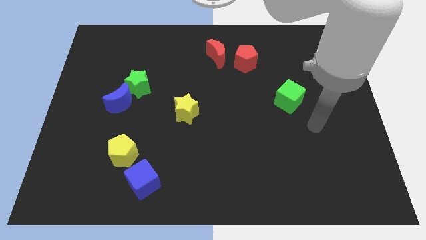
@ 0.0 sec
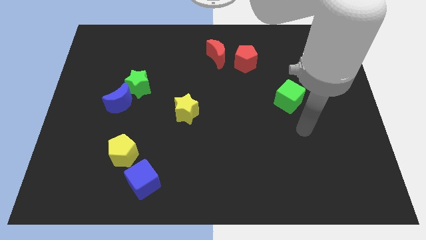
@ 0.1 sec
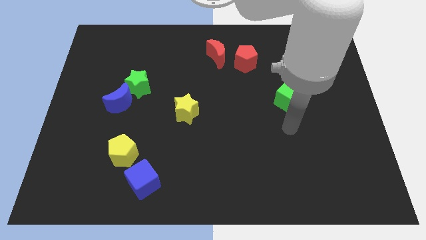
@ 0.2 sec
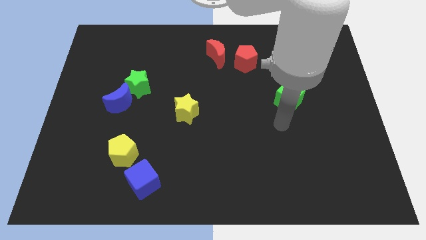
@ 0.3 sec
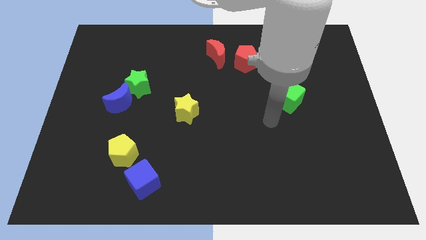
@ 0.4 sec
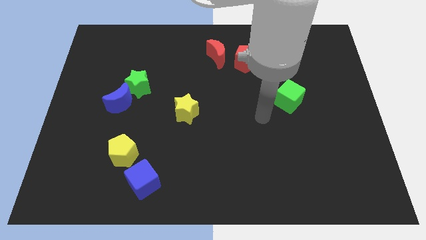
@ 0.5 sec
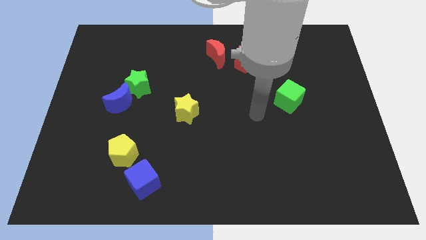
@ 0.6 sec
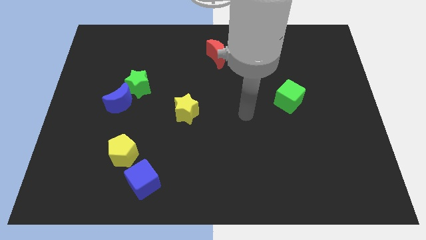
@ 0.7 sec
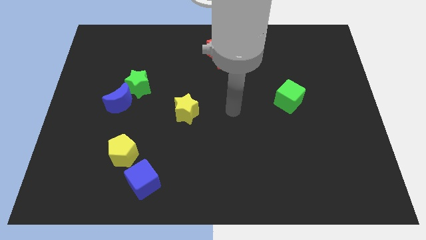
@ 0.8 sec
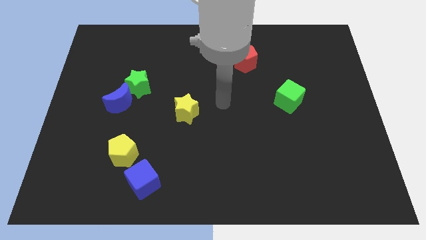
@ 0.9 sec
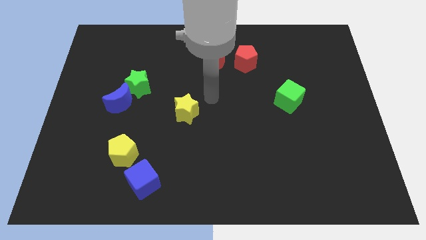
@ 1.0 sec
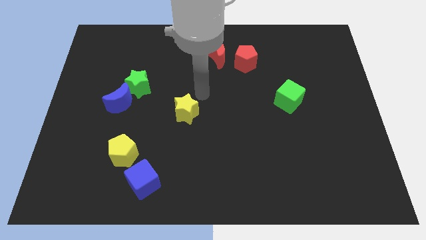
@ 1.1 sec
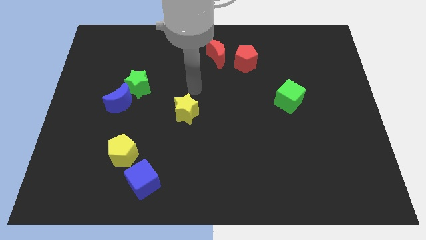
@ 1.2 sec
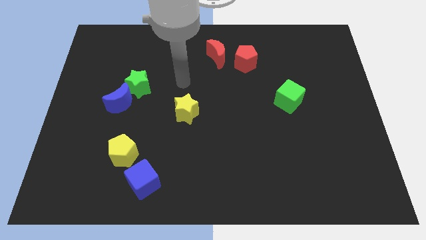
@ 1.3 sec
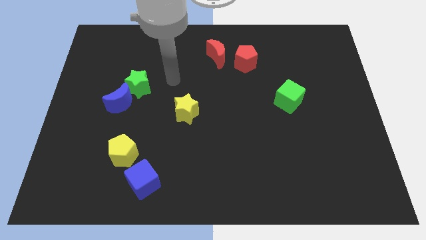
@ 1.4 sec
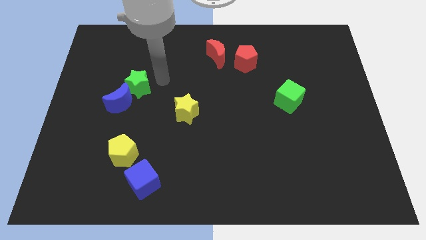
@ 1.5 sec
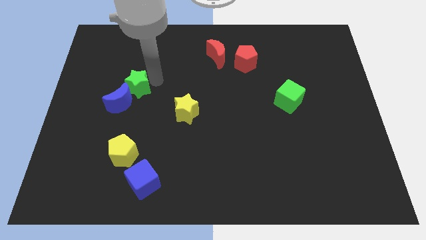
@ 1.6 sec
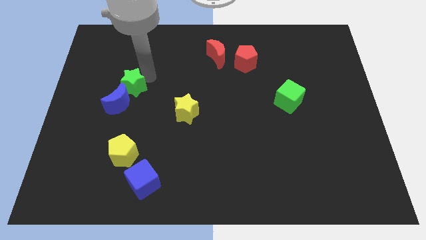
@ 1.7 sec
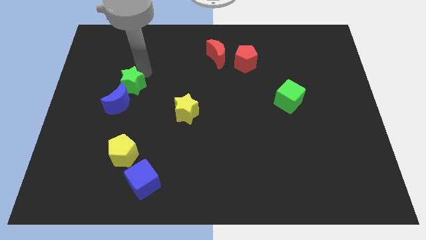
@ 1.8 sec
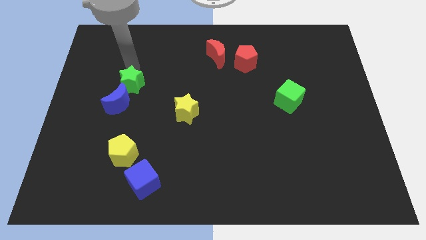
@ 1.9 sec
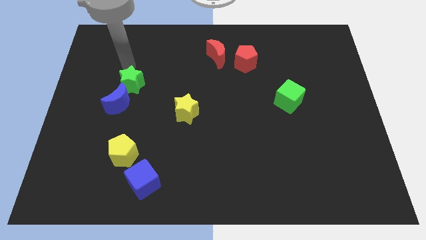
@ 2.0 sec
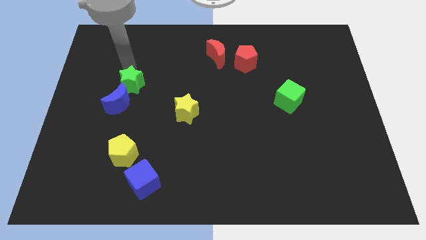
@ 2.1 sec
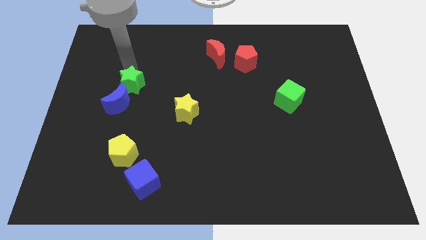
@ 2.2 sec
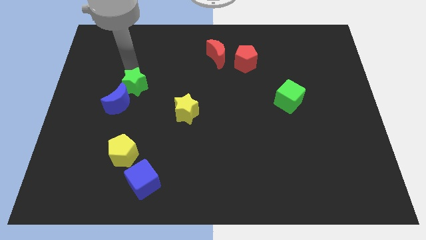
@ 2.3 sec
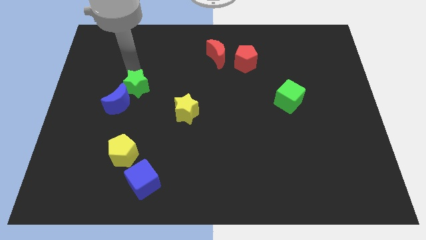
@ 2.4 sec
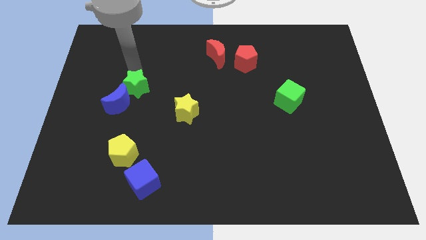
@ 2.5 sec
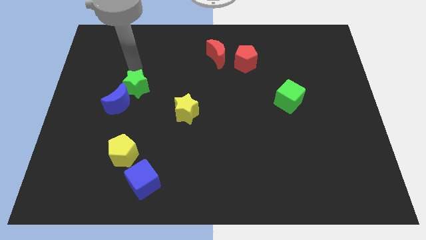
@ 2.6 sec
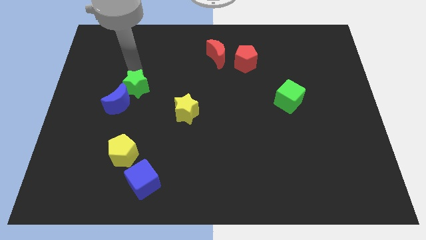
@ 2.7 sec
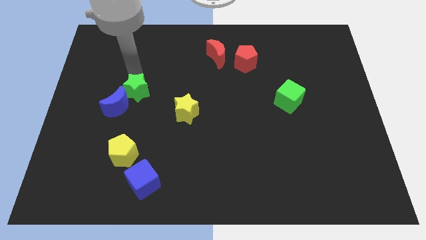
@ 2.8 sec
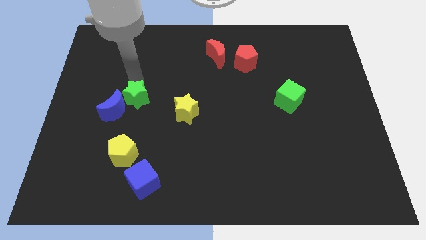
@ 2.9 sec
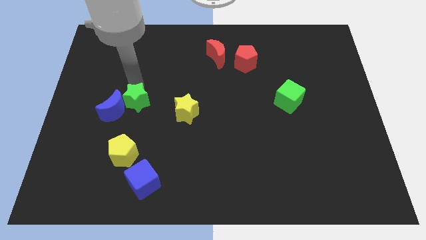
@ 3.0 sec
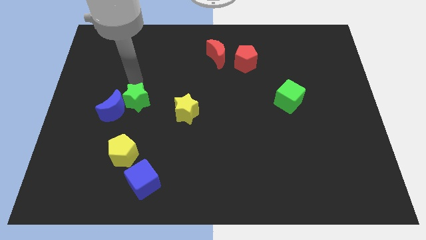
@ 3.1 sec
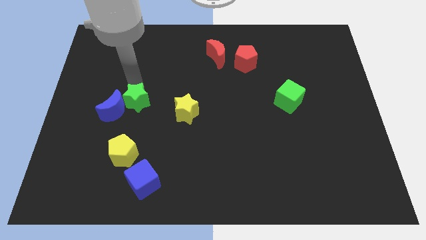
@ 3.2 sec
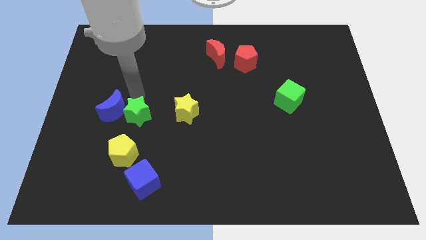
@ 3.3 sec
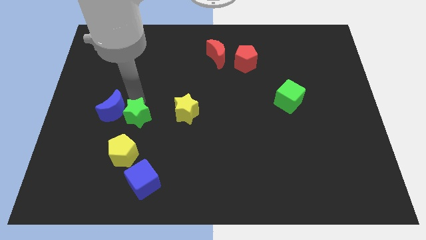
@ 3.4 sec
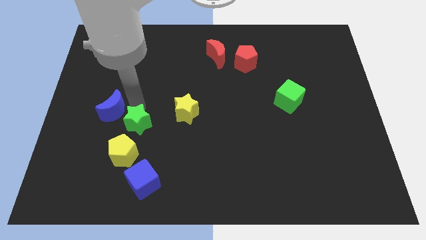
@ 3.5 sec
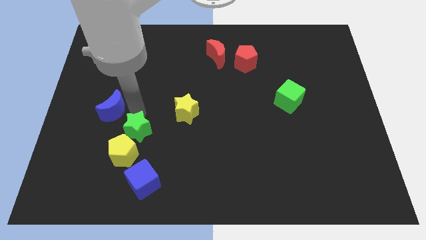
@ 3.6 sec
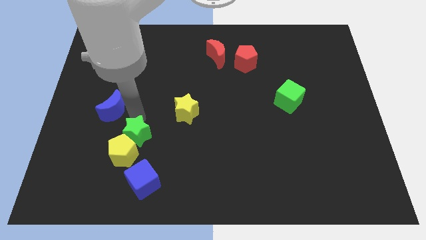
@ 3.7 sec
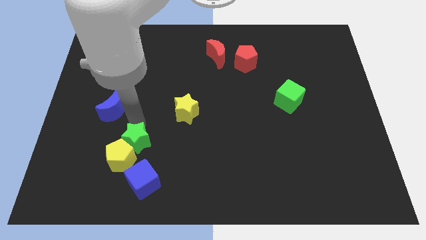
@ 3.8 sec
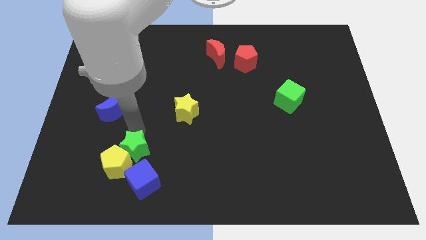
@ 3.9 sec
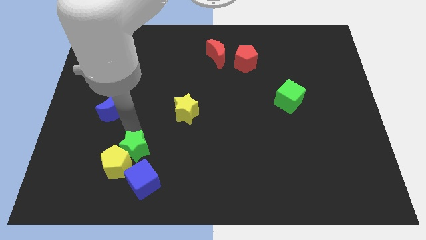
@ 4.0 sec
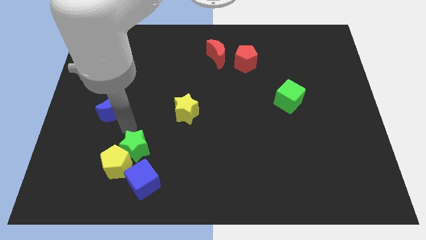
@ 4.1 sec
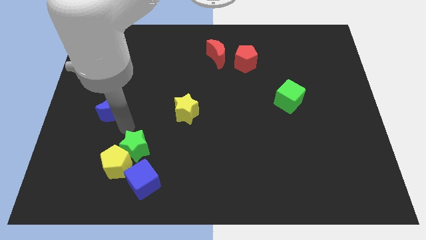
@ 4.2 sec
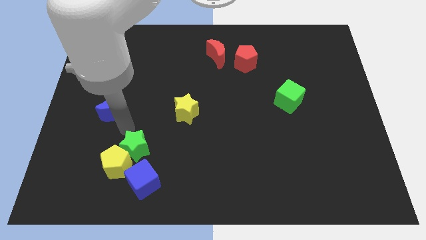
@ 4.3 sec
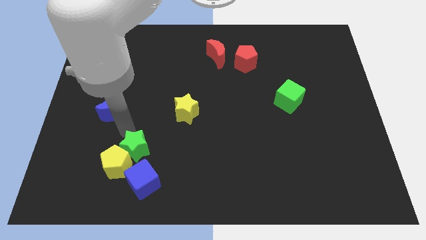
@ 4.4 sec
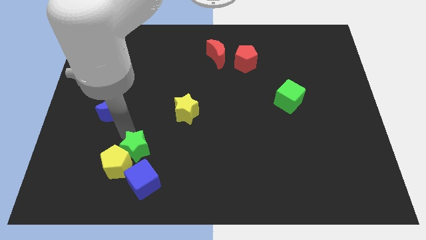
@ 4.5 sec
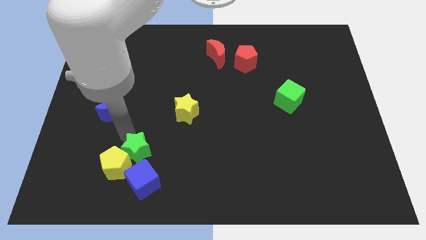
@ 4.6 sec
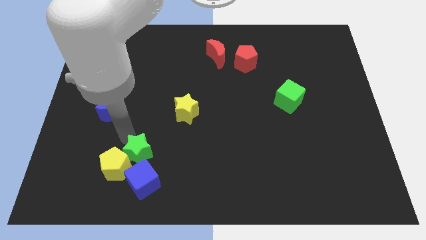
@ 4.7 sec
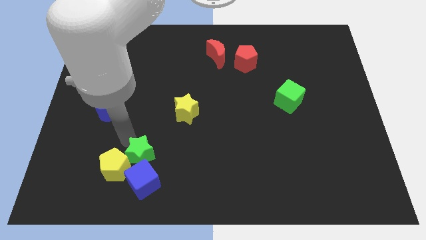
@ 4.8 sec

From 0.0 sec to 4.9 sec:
put the green star close to the blue cube

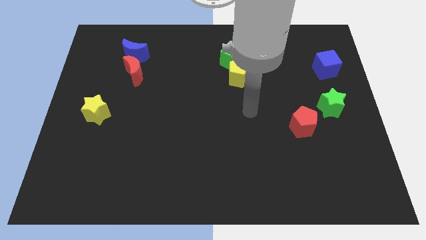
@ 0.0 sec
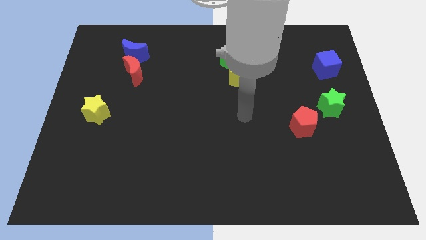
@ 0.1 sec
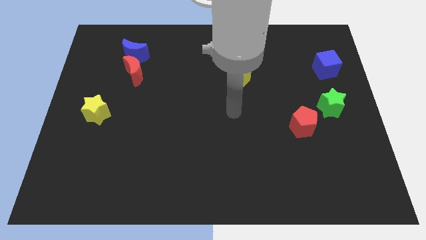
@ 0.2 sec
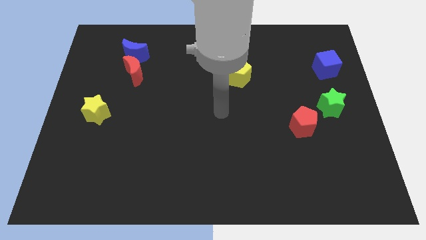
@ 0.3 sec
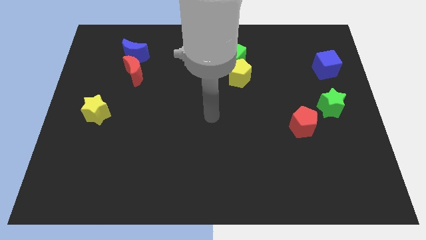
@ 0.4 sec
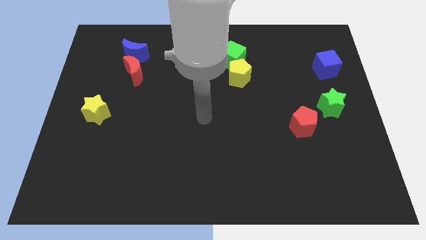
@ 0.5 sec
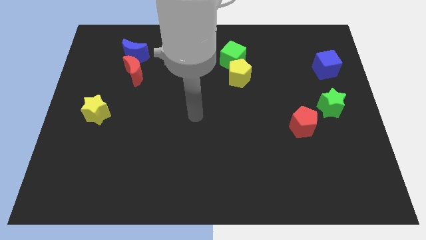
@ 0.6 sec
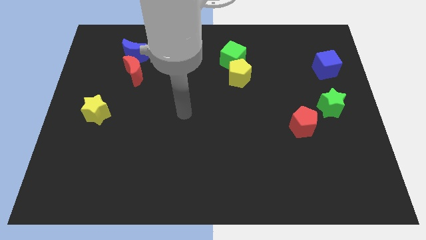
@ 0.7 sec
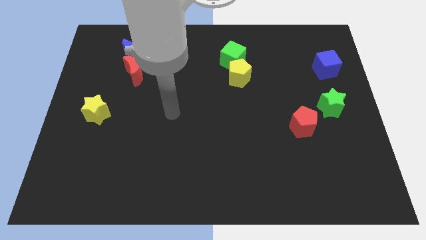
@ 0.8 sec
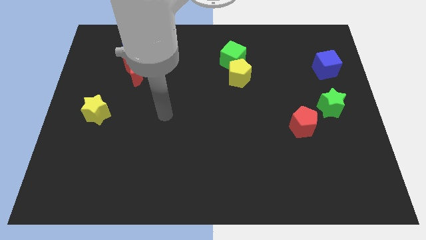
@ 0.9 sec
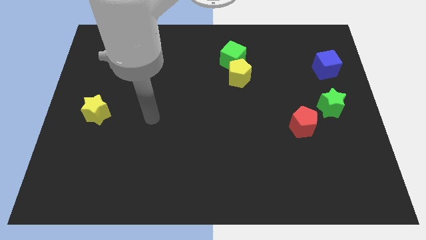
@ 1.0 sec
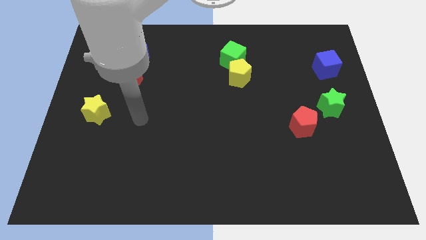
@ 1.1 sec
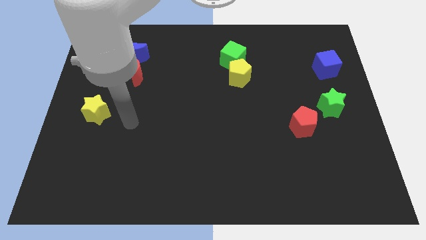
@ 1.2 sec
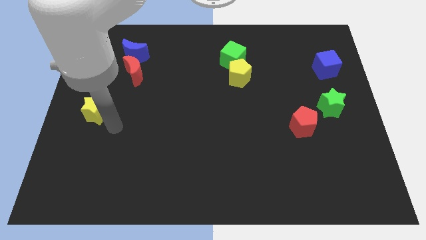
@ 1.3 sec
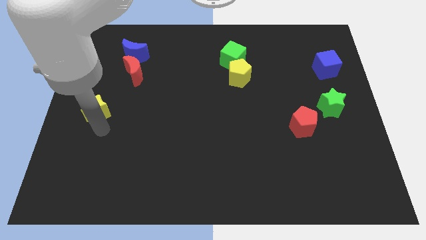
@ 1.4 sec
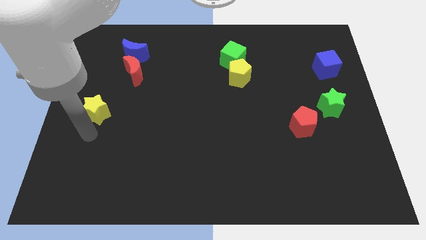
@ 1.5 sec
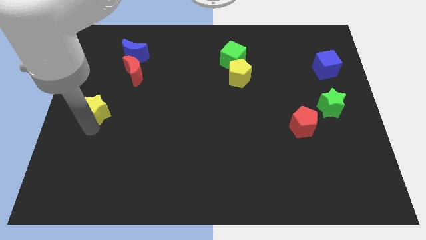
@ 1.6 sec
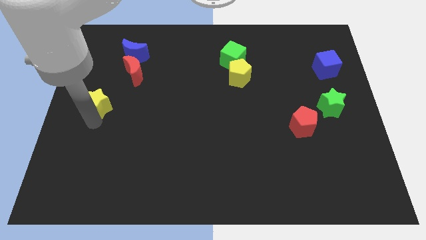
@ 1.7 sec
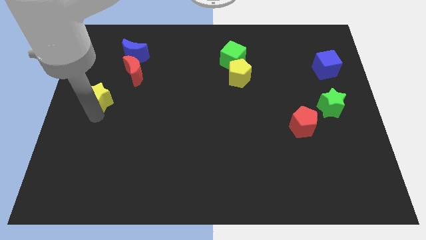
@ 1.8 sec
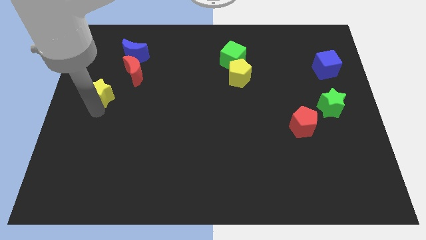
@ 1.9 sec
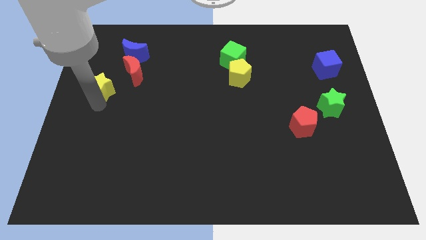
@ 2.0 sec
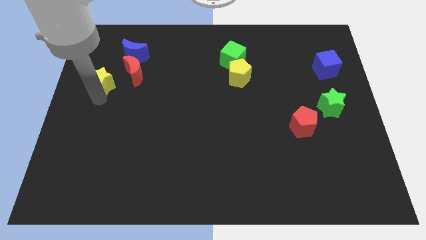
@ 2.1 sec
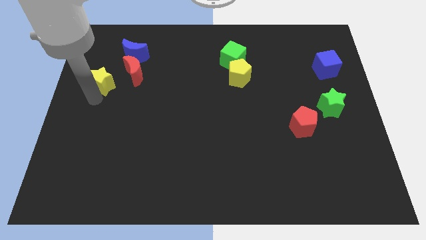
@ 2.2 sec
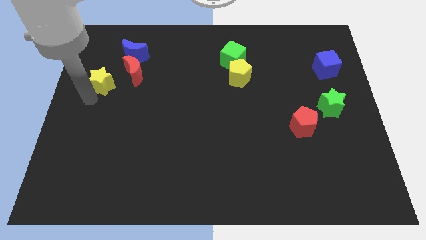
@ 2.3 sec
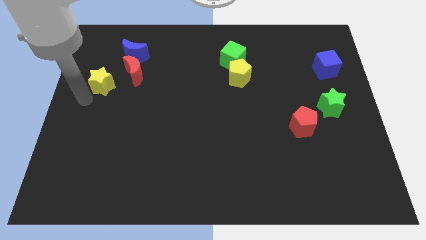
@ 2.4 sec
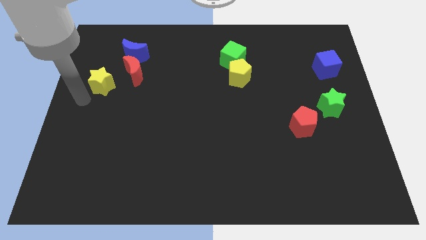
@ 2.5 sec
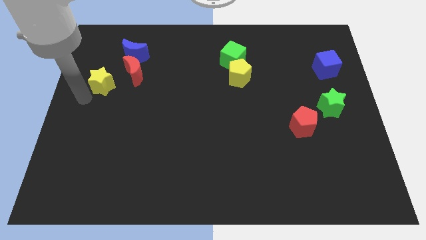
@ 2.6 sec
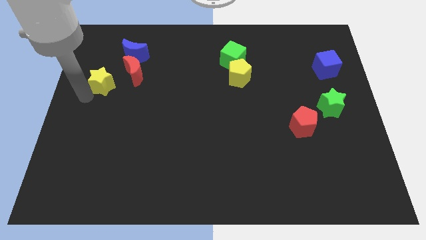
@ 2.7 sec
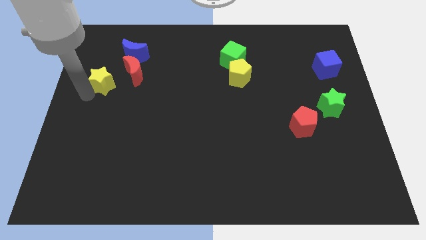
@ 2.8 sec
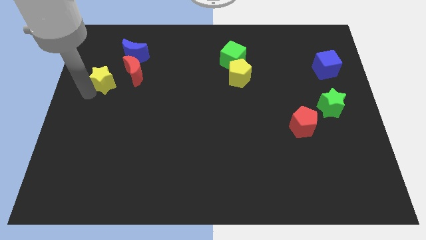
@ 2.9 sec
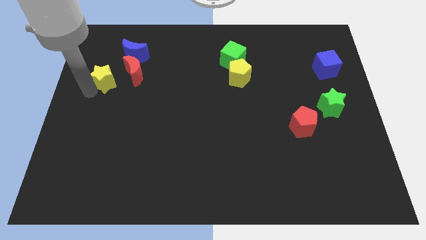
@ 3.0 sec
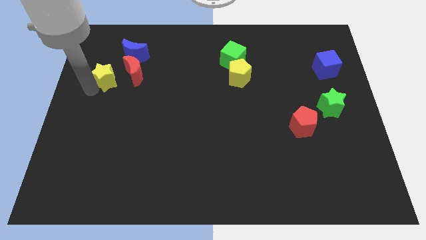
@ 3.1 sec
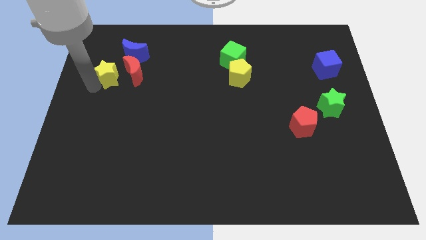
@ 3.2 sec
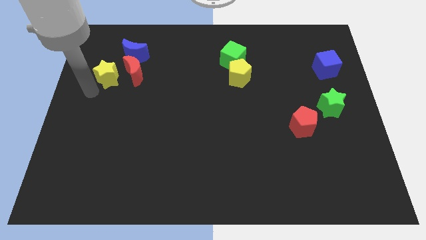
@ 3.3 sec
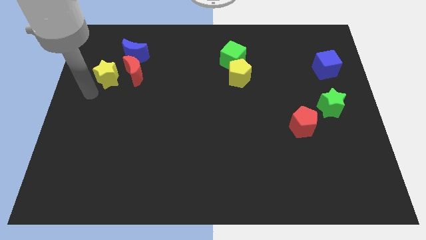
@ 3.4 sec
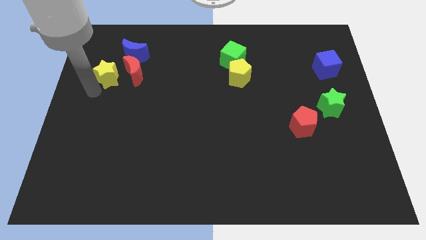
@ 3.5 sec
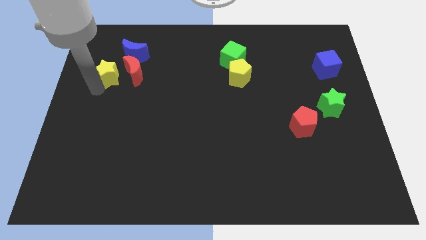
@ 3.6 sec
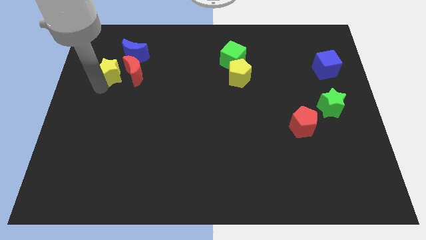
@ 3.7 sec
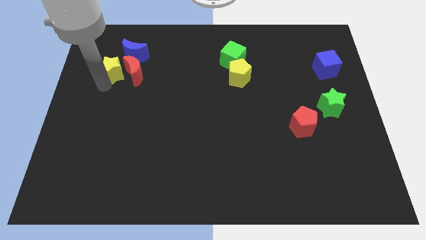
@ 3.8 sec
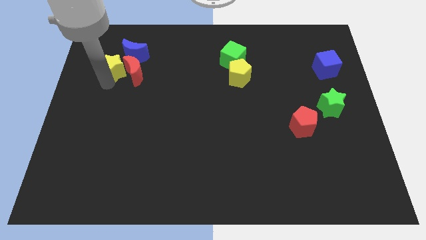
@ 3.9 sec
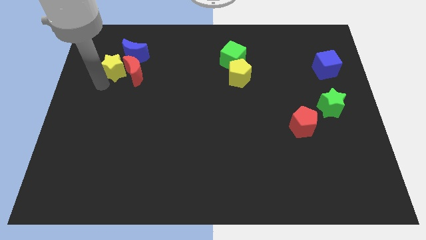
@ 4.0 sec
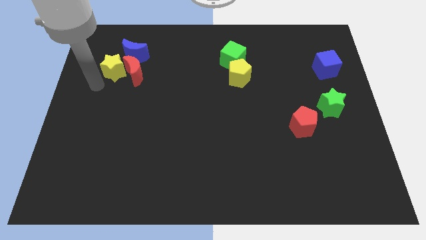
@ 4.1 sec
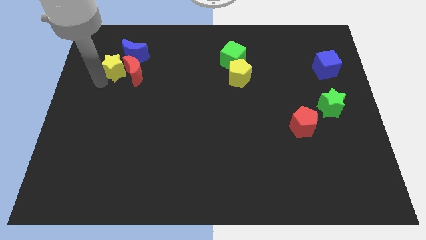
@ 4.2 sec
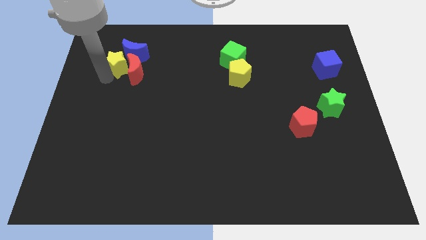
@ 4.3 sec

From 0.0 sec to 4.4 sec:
move the yellow star to the blue moon
